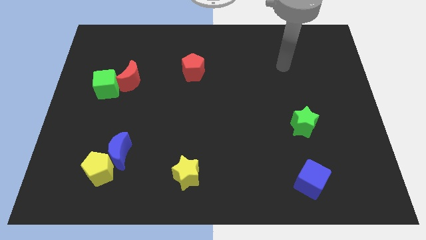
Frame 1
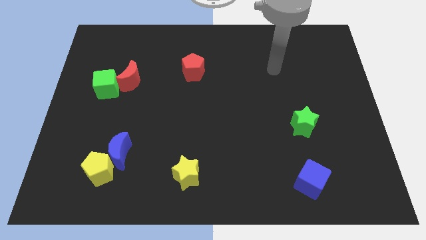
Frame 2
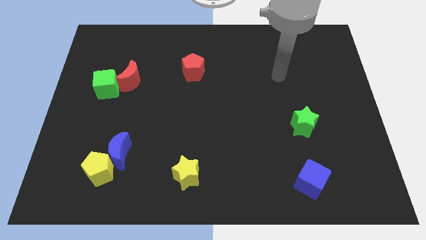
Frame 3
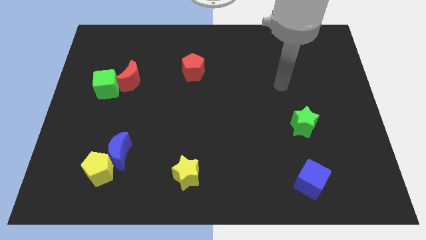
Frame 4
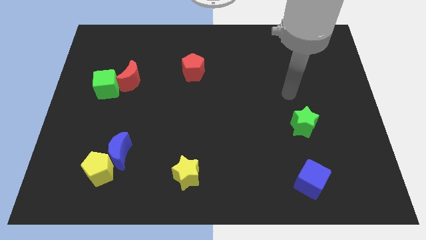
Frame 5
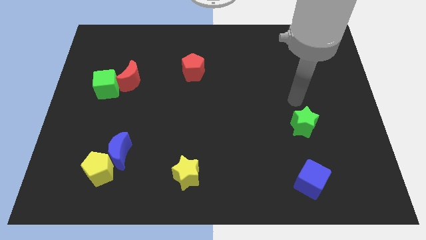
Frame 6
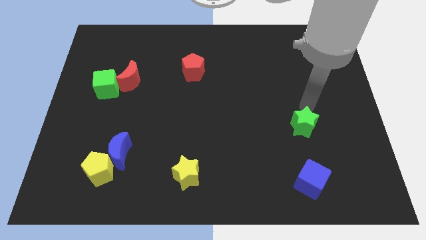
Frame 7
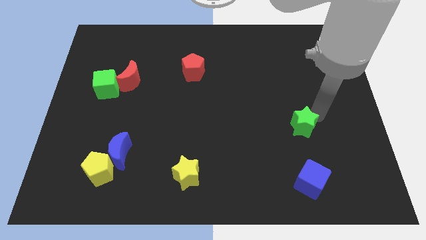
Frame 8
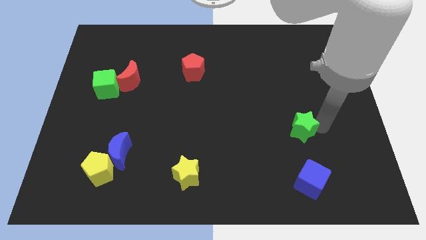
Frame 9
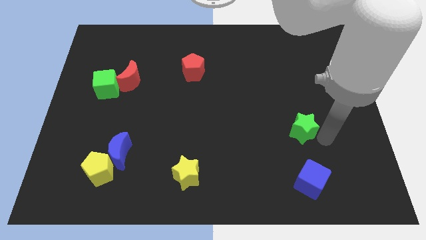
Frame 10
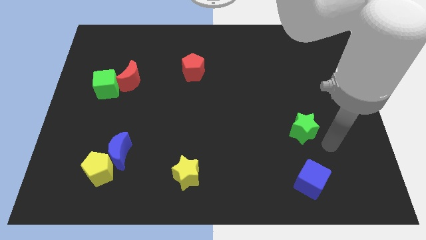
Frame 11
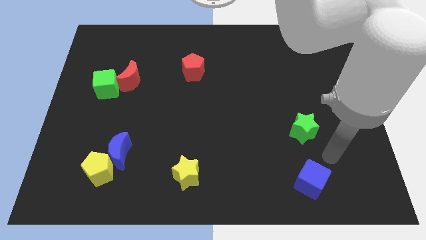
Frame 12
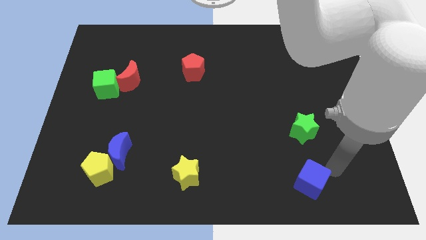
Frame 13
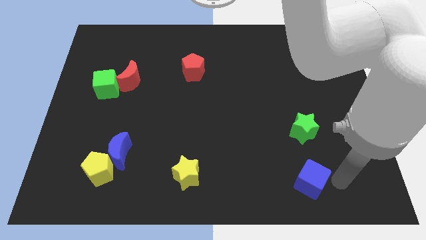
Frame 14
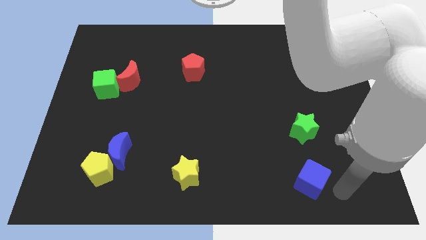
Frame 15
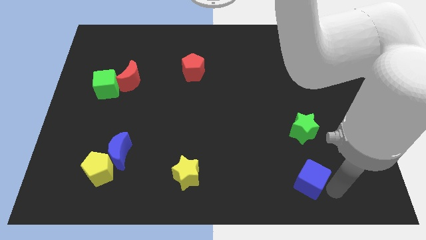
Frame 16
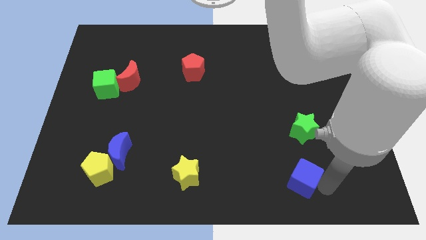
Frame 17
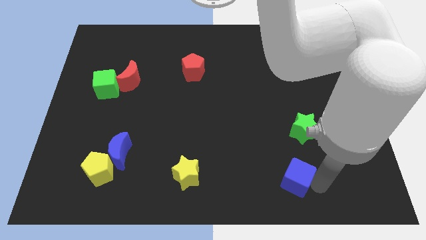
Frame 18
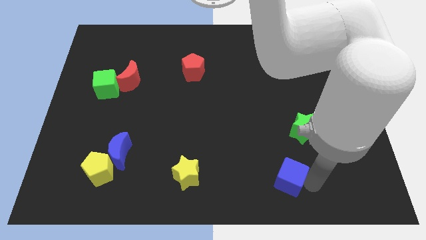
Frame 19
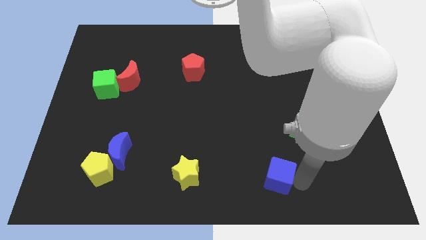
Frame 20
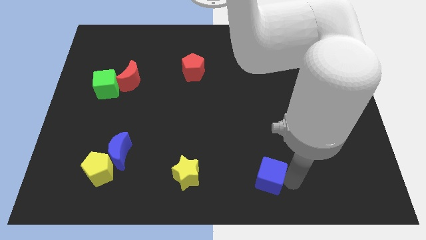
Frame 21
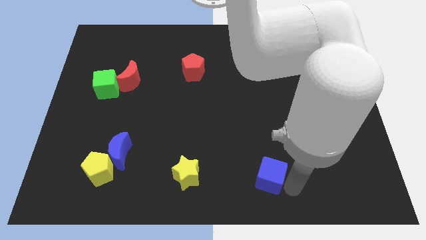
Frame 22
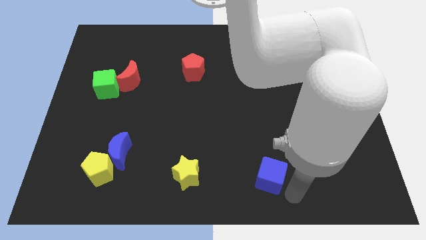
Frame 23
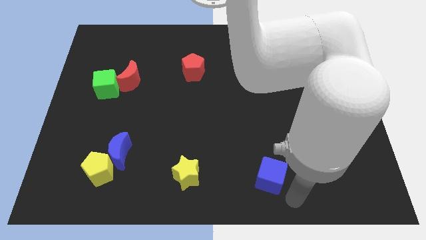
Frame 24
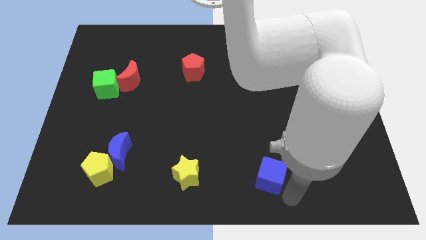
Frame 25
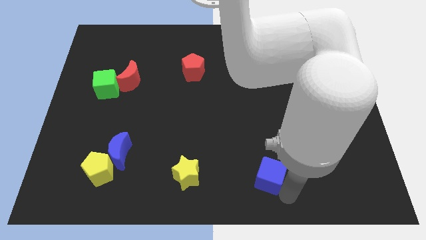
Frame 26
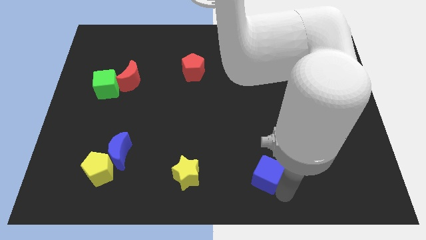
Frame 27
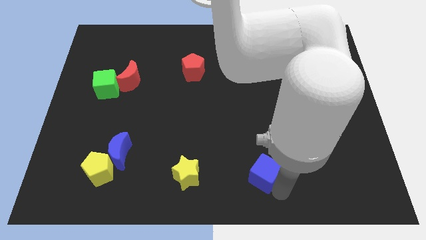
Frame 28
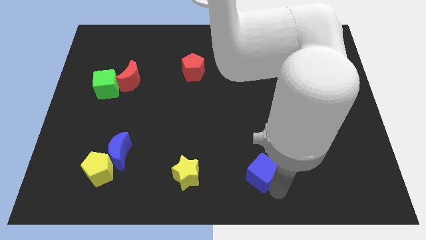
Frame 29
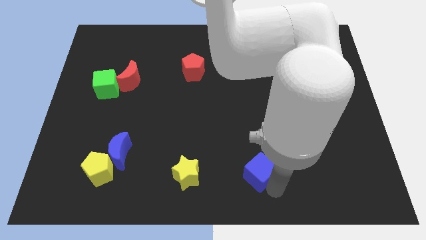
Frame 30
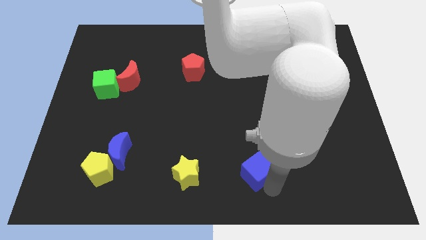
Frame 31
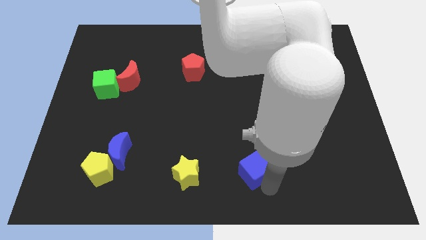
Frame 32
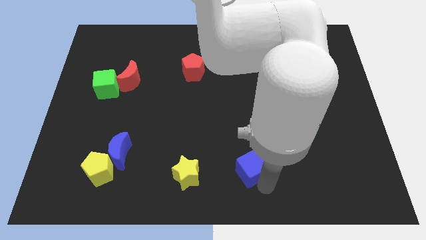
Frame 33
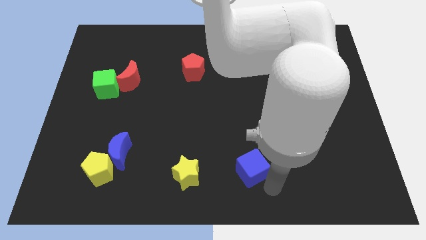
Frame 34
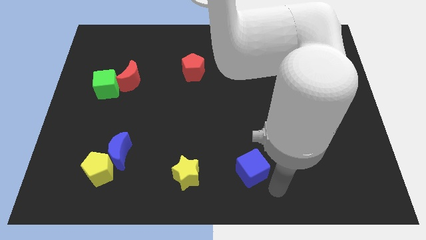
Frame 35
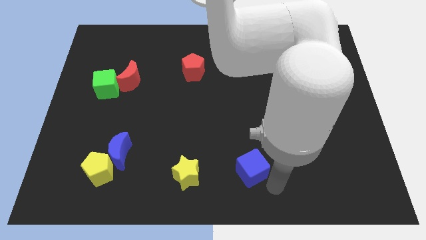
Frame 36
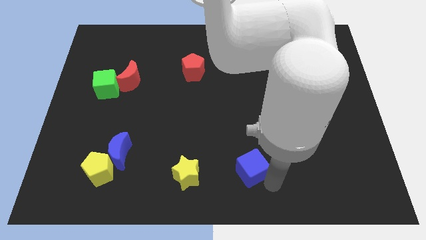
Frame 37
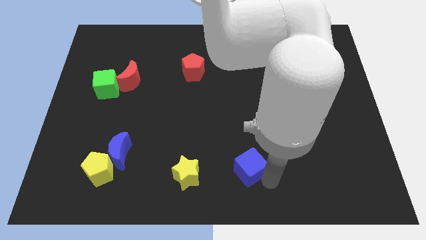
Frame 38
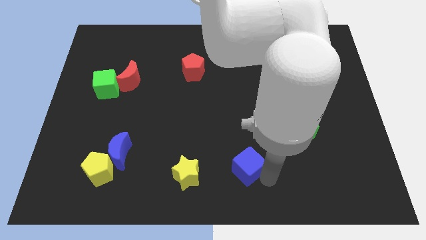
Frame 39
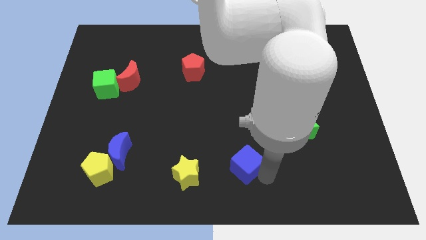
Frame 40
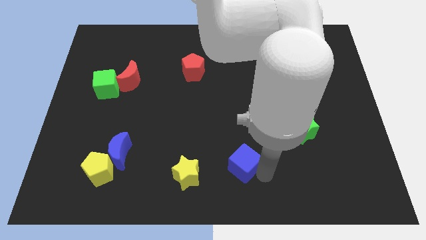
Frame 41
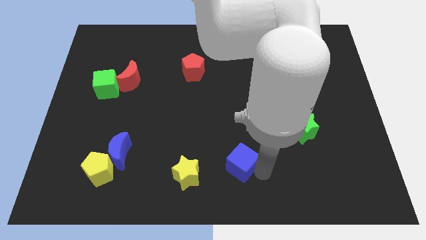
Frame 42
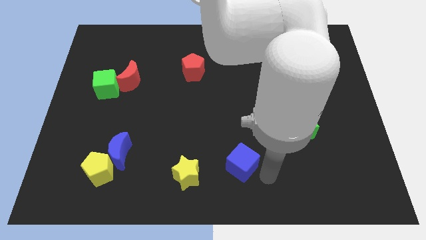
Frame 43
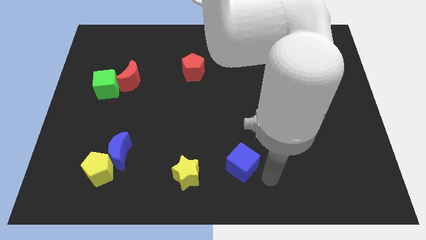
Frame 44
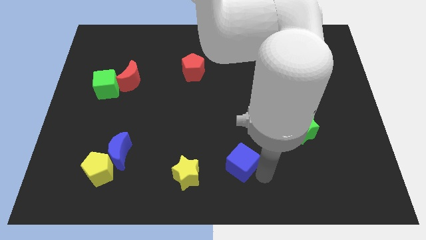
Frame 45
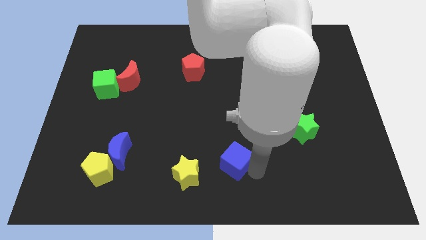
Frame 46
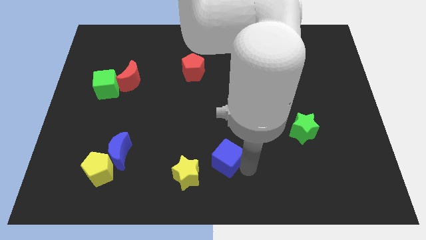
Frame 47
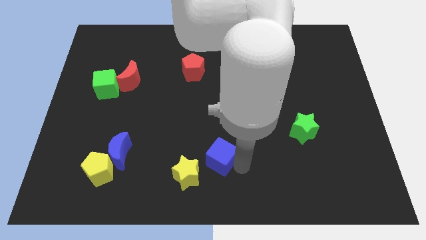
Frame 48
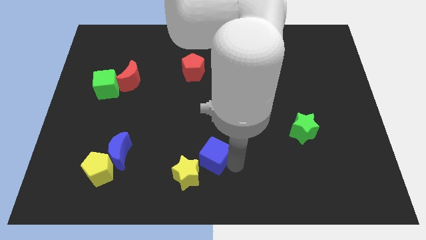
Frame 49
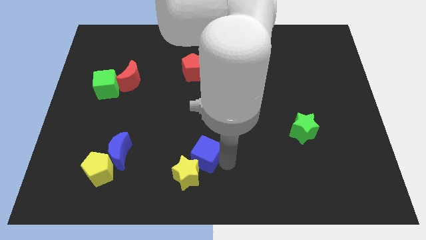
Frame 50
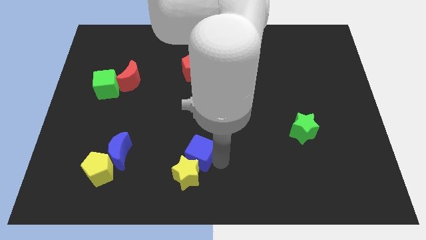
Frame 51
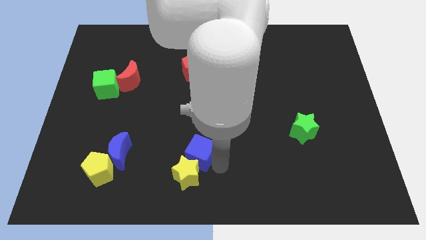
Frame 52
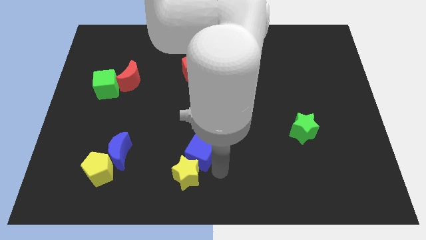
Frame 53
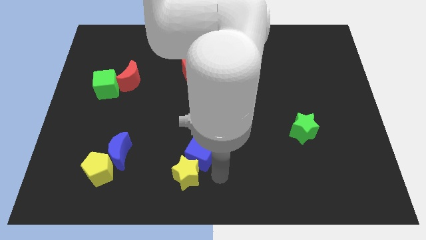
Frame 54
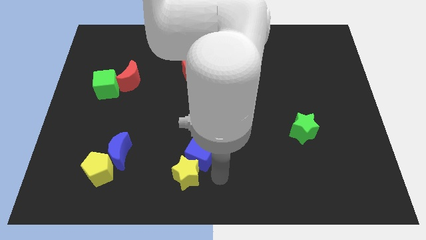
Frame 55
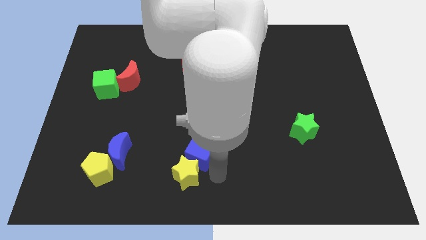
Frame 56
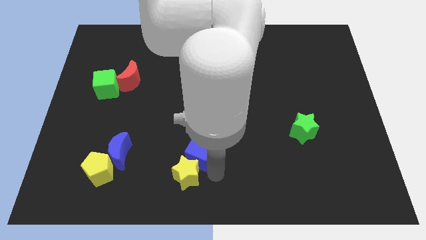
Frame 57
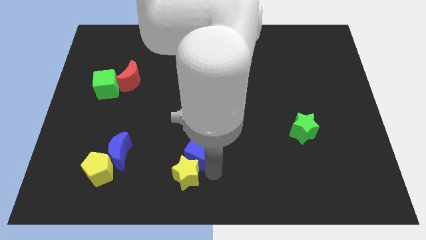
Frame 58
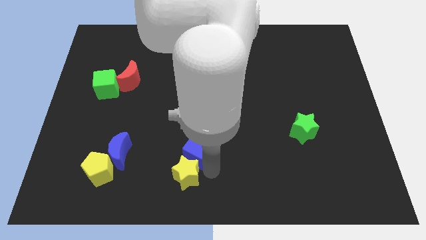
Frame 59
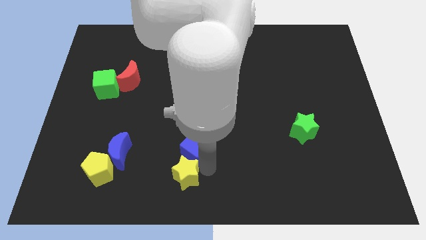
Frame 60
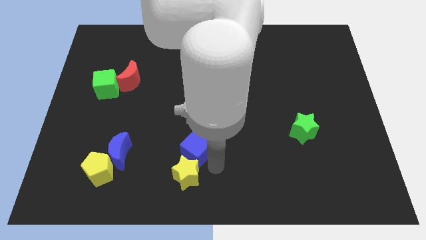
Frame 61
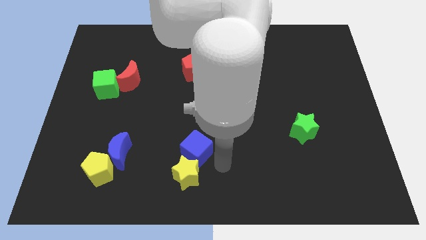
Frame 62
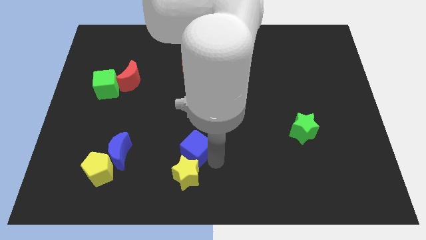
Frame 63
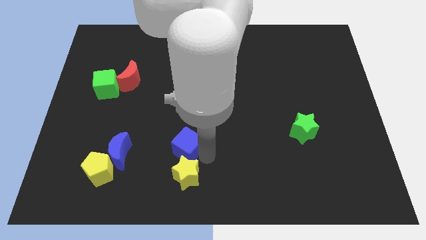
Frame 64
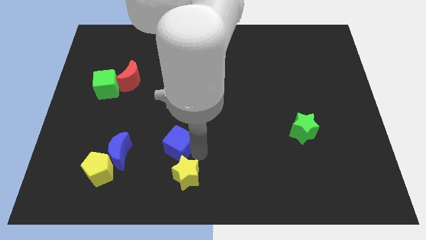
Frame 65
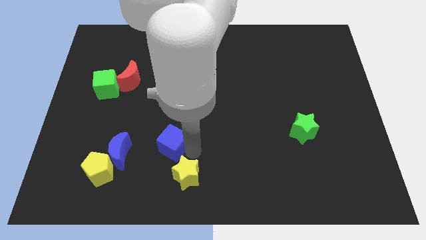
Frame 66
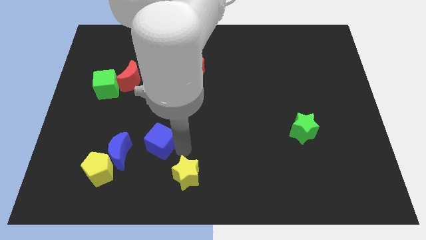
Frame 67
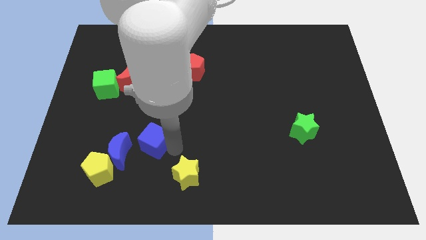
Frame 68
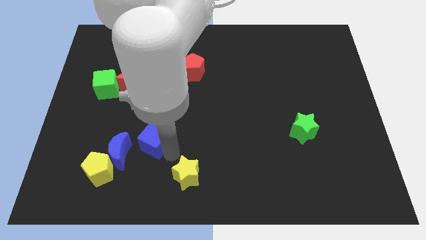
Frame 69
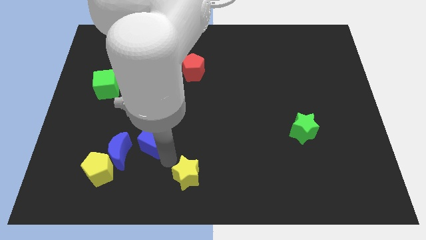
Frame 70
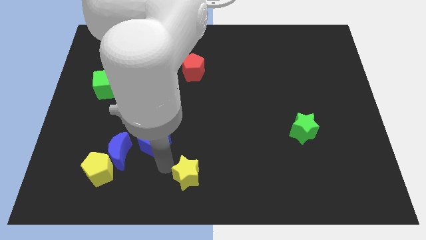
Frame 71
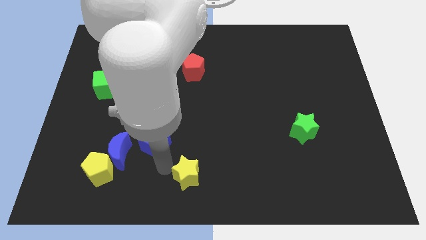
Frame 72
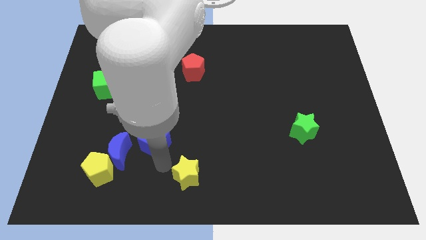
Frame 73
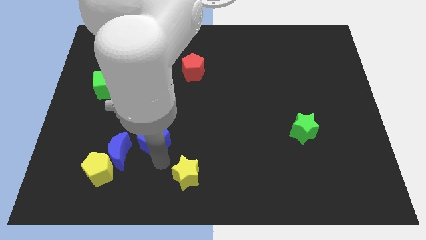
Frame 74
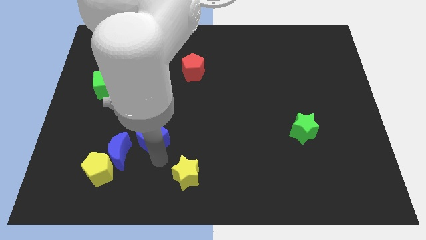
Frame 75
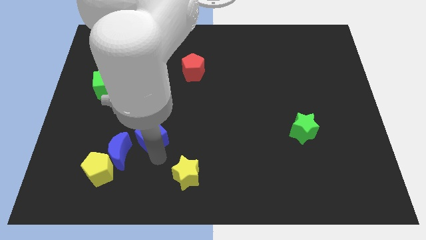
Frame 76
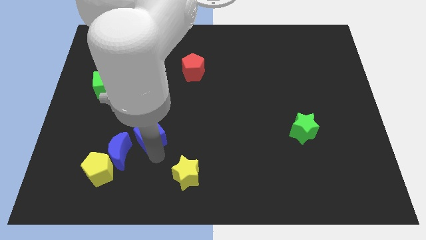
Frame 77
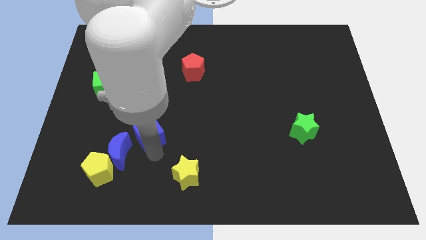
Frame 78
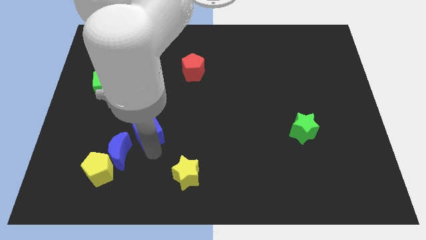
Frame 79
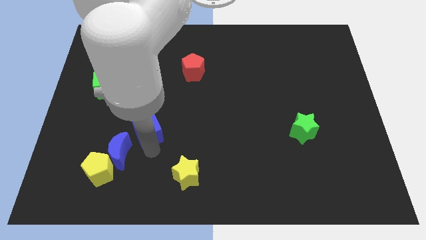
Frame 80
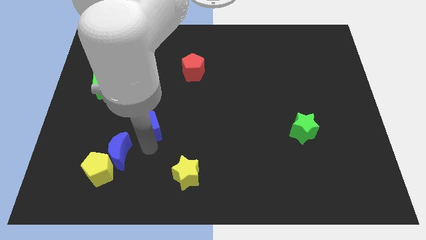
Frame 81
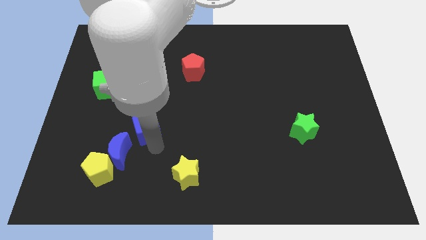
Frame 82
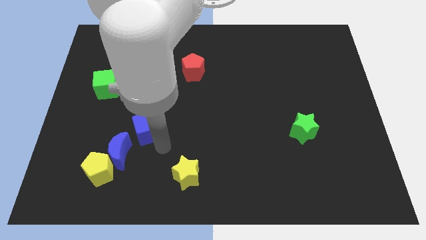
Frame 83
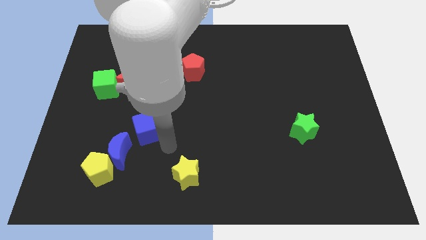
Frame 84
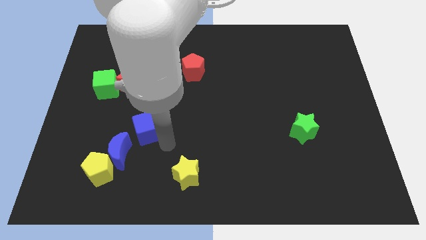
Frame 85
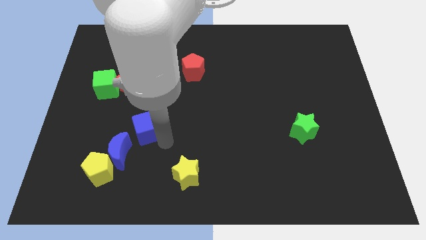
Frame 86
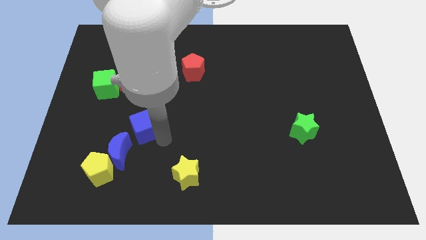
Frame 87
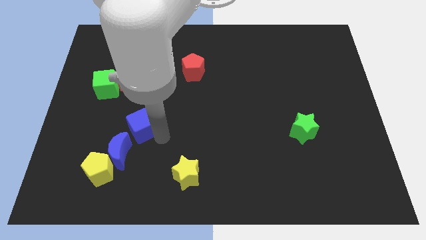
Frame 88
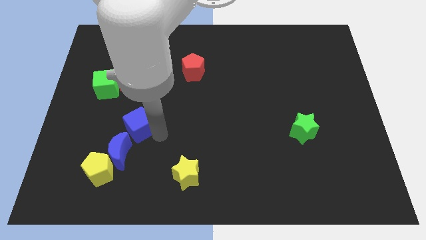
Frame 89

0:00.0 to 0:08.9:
put the blue cube to the bottom side of the red moon
